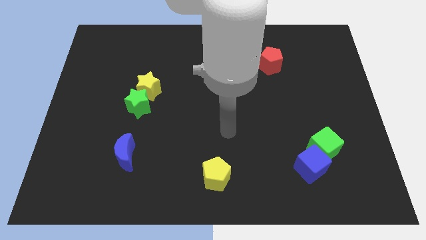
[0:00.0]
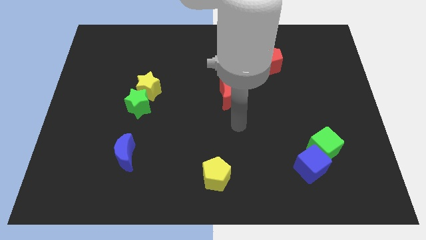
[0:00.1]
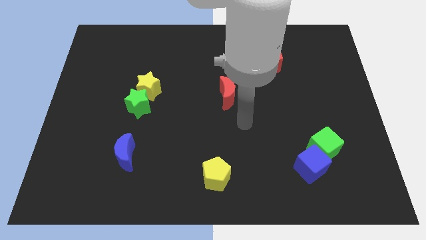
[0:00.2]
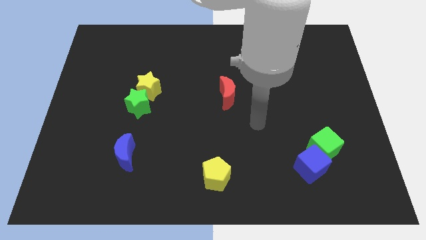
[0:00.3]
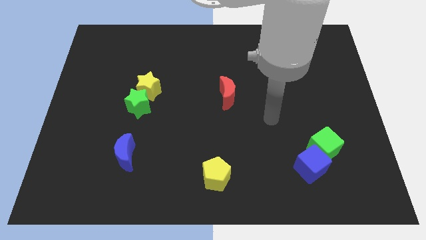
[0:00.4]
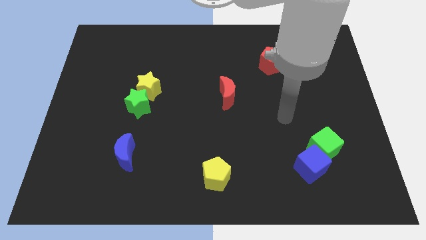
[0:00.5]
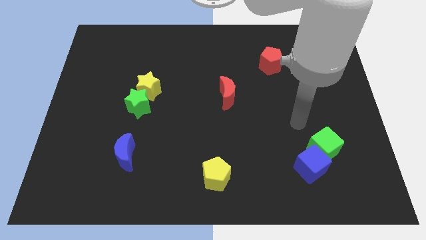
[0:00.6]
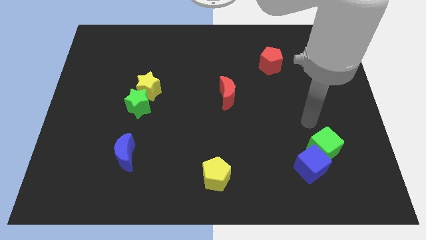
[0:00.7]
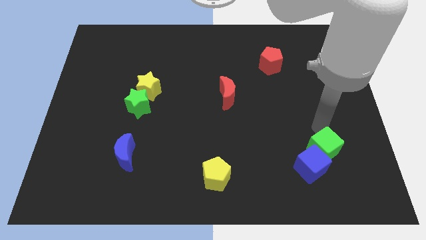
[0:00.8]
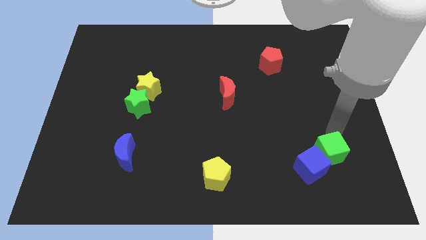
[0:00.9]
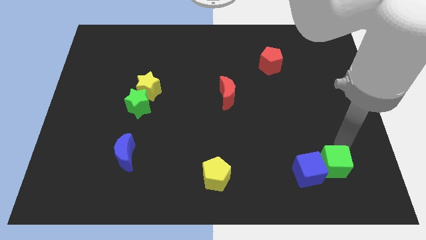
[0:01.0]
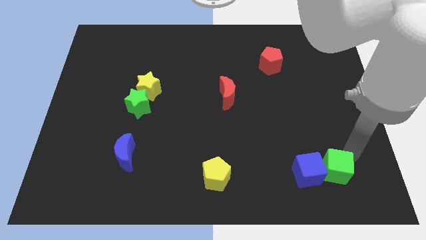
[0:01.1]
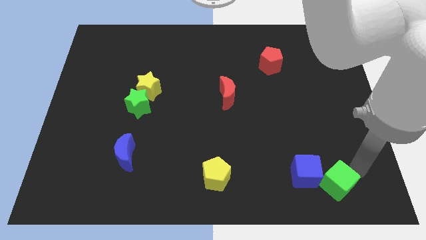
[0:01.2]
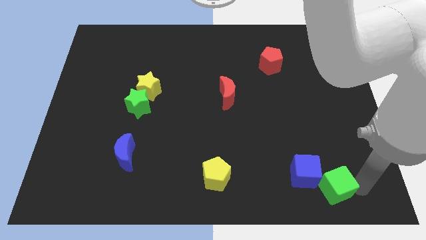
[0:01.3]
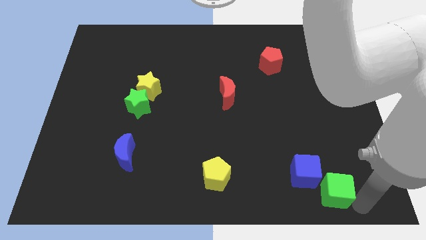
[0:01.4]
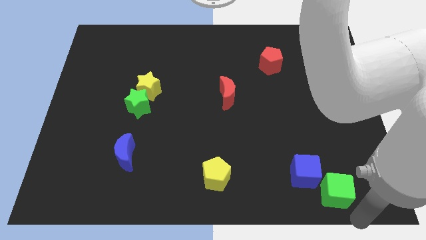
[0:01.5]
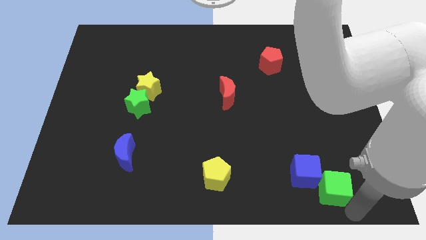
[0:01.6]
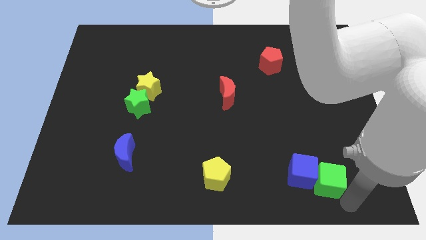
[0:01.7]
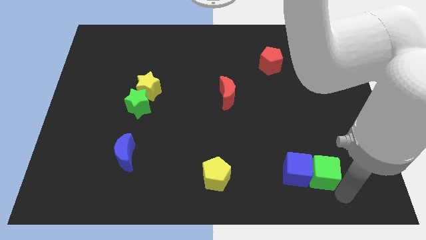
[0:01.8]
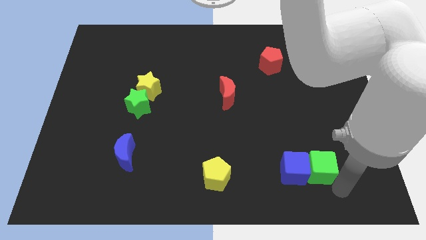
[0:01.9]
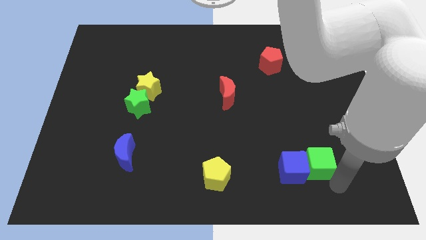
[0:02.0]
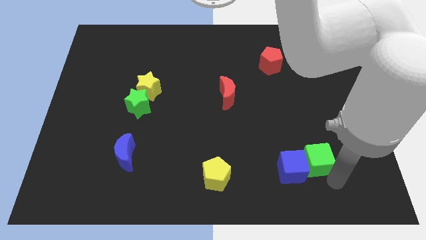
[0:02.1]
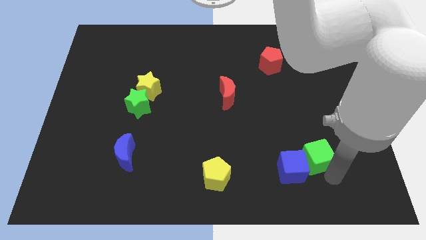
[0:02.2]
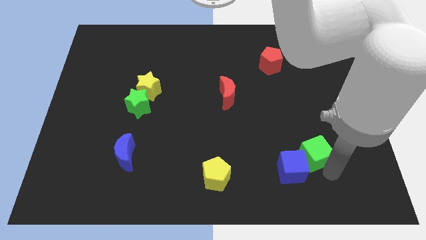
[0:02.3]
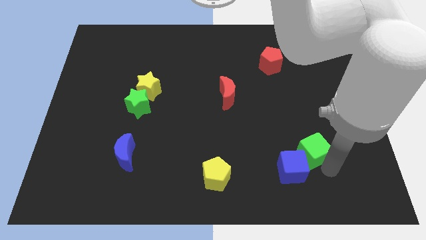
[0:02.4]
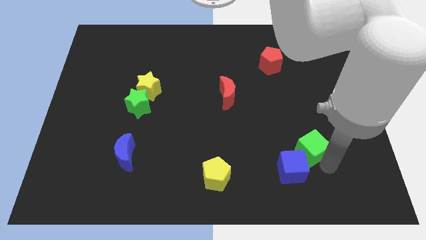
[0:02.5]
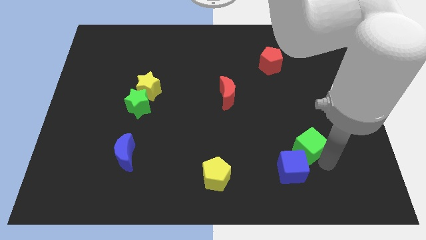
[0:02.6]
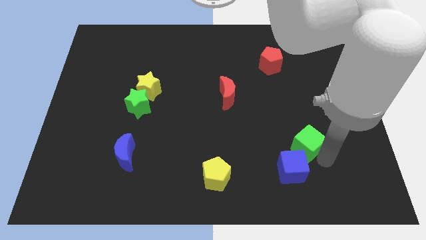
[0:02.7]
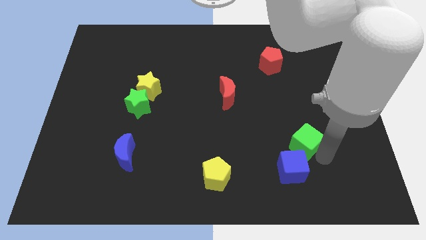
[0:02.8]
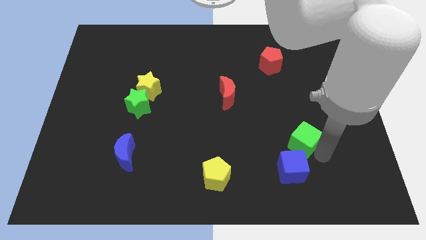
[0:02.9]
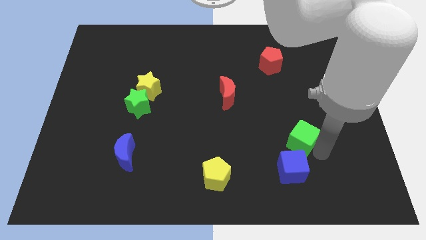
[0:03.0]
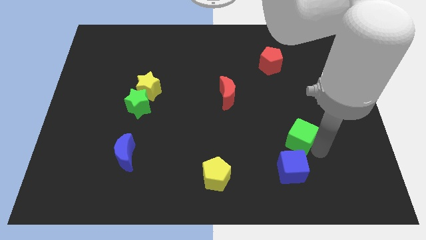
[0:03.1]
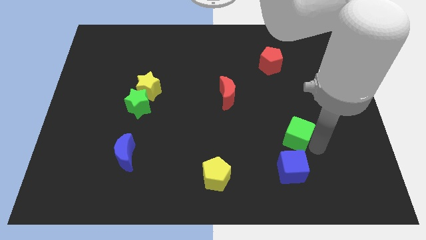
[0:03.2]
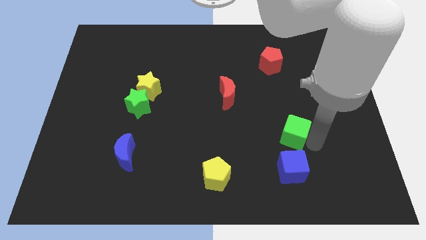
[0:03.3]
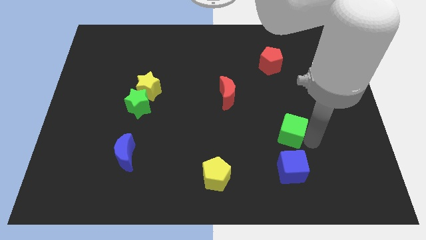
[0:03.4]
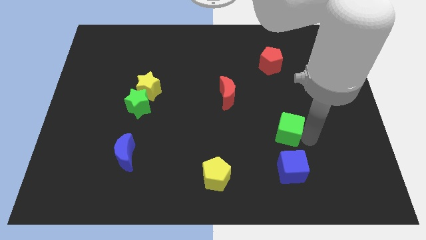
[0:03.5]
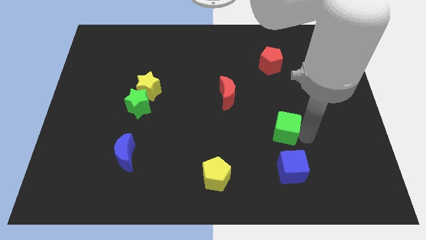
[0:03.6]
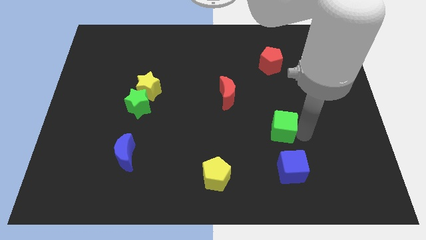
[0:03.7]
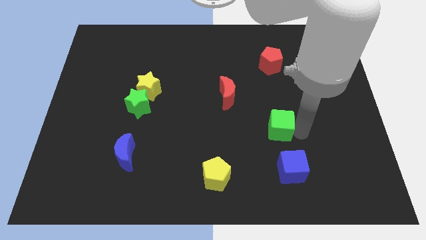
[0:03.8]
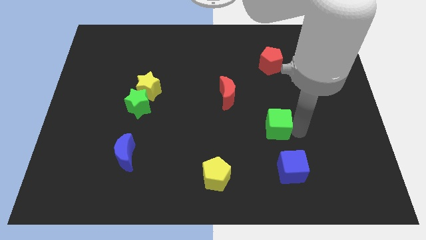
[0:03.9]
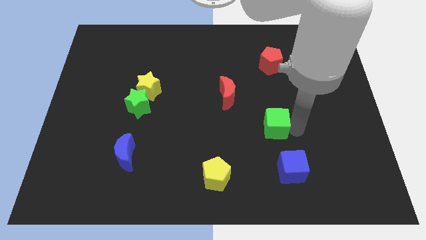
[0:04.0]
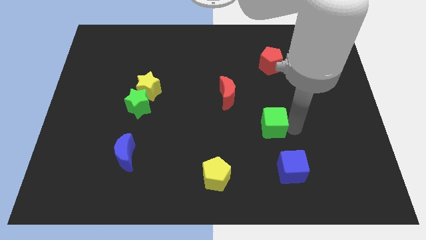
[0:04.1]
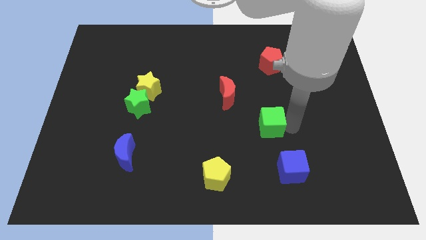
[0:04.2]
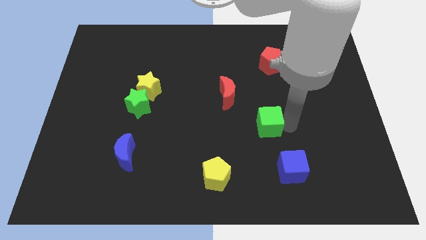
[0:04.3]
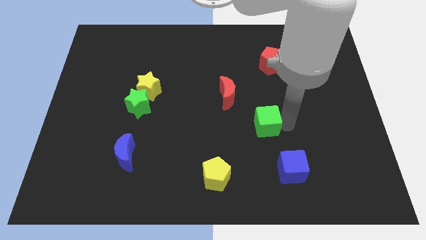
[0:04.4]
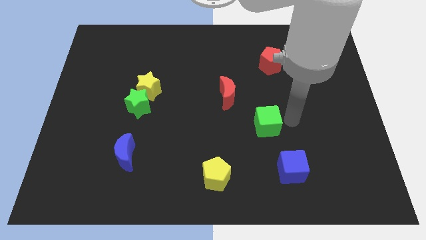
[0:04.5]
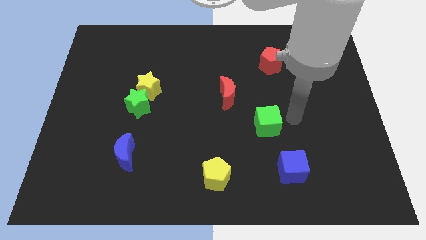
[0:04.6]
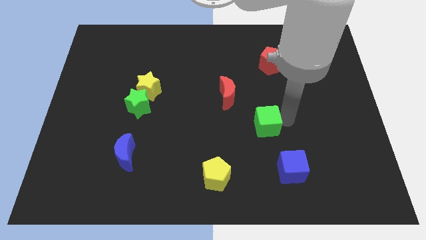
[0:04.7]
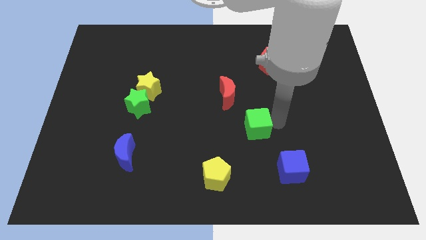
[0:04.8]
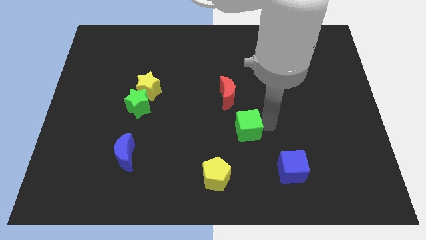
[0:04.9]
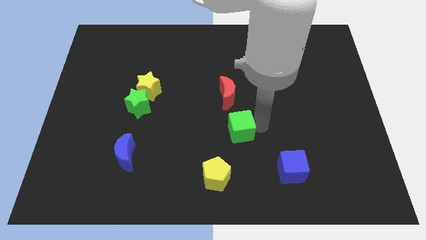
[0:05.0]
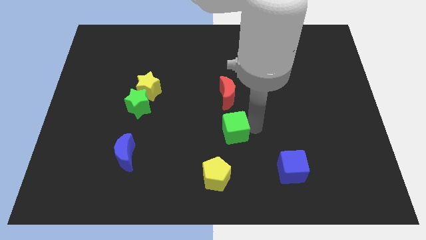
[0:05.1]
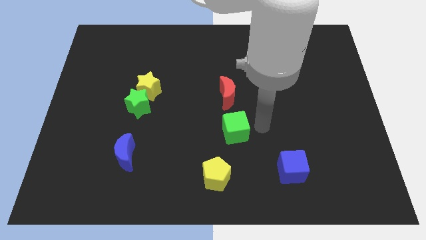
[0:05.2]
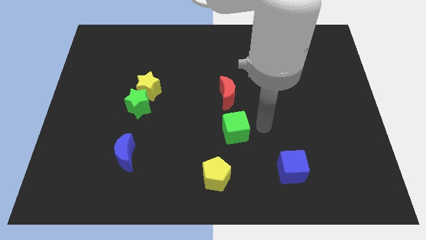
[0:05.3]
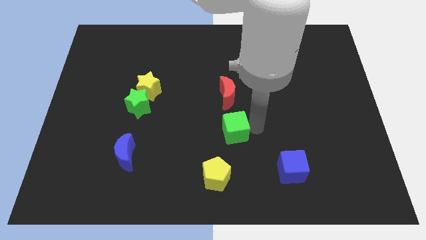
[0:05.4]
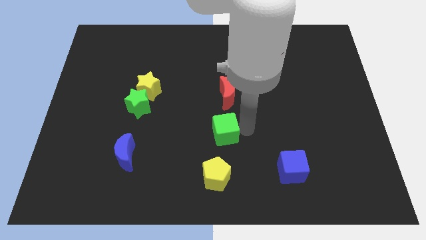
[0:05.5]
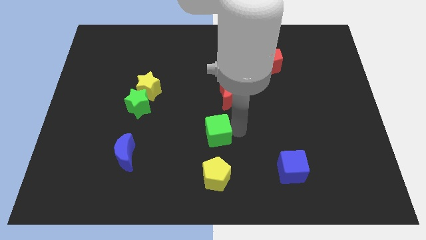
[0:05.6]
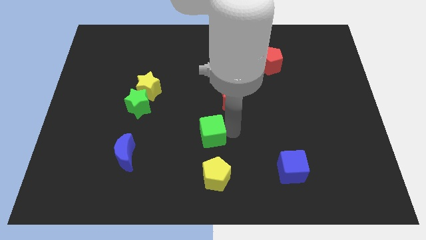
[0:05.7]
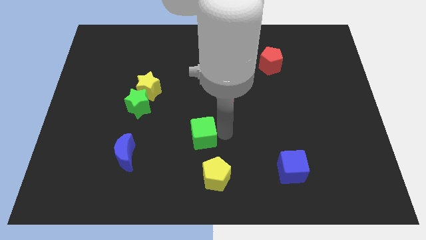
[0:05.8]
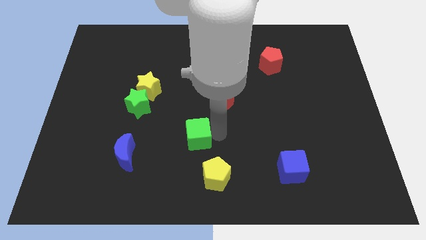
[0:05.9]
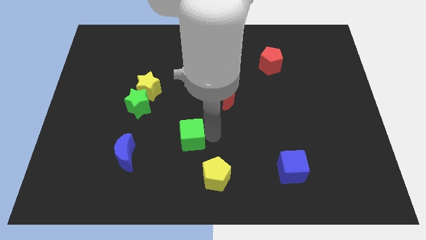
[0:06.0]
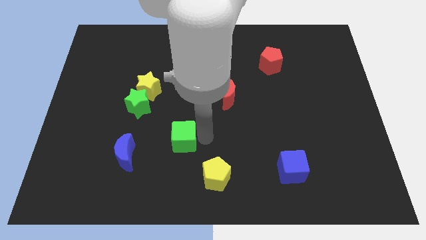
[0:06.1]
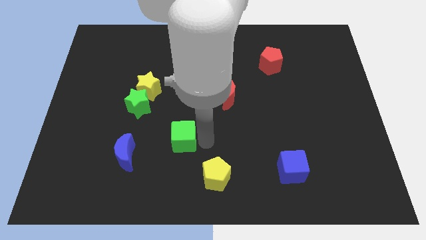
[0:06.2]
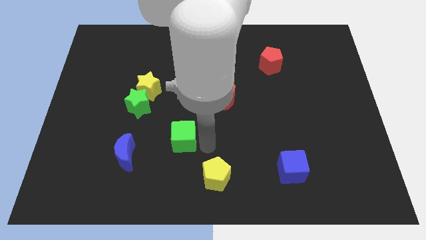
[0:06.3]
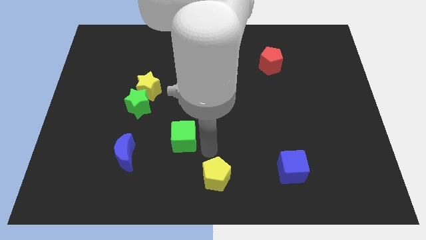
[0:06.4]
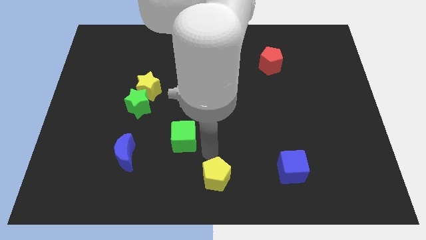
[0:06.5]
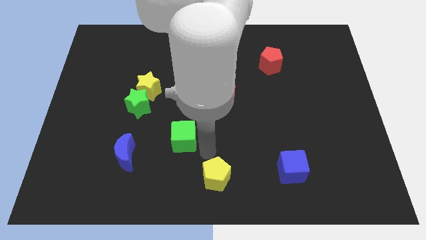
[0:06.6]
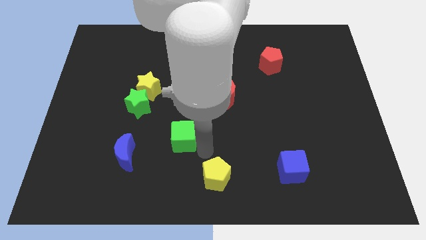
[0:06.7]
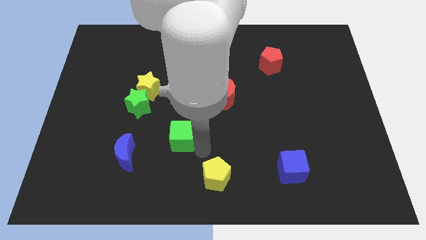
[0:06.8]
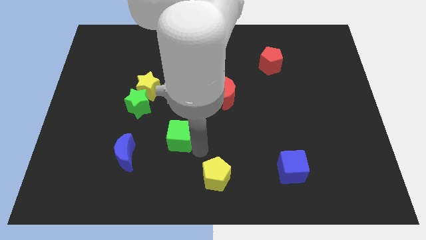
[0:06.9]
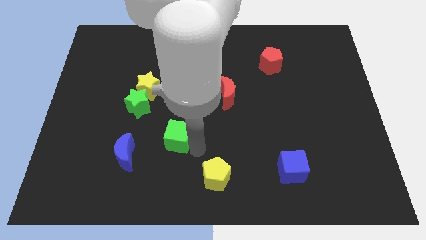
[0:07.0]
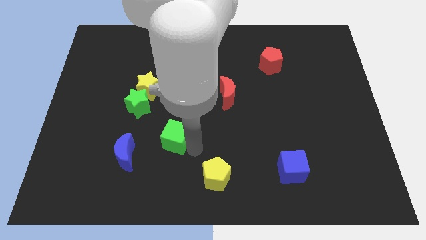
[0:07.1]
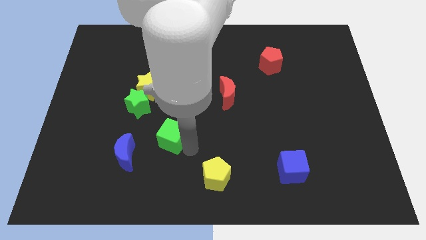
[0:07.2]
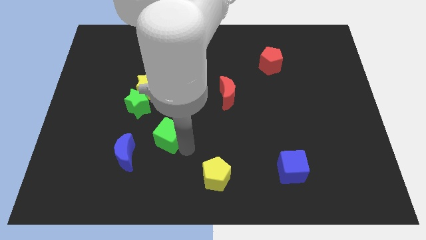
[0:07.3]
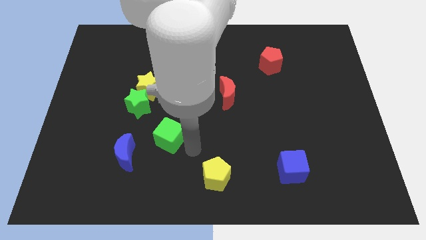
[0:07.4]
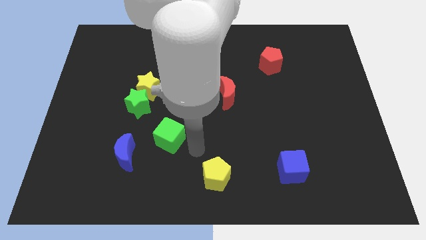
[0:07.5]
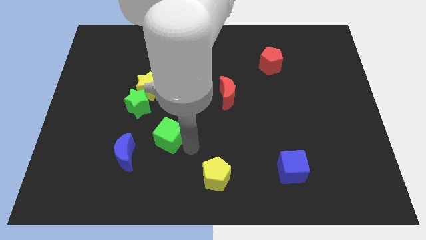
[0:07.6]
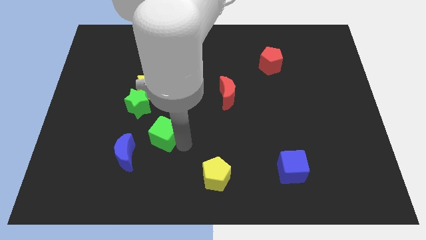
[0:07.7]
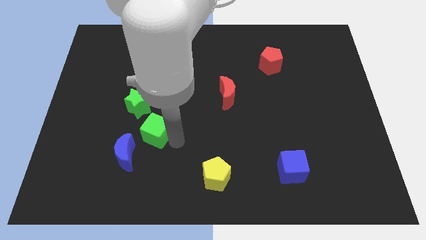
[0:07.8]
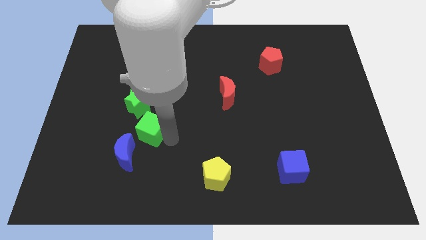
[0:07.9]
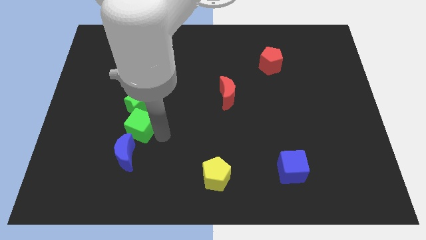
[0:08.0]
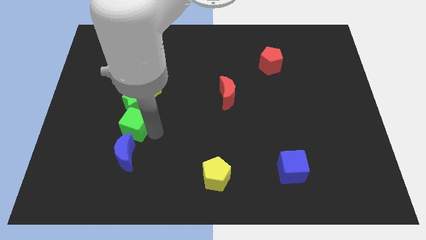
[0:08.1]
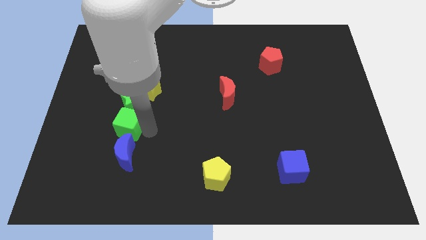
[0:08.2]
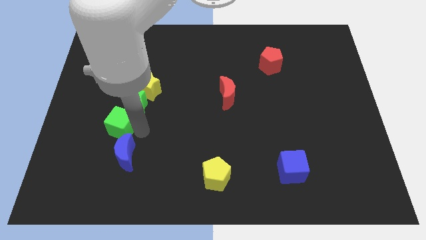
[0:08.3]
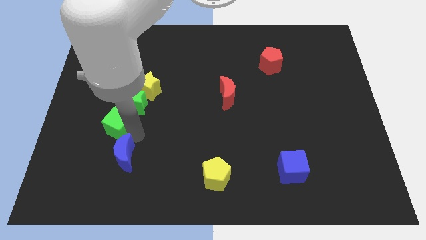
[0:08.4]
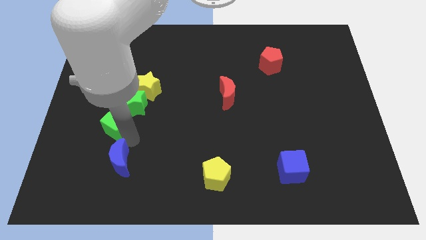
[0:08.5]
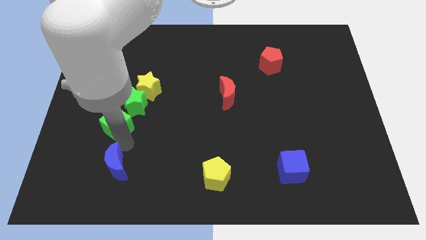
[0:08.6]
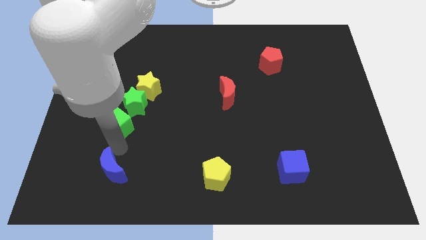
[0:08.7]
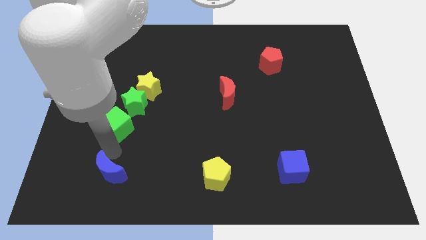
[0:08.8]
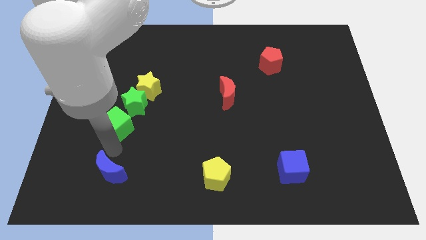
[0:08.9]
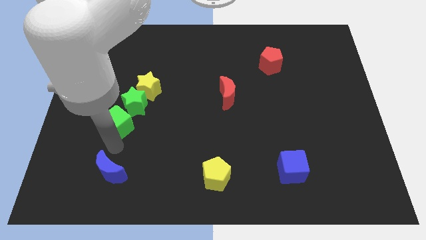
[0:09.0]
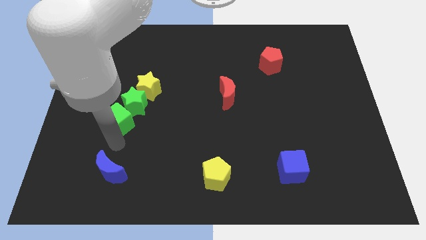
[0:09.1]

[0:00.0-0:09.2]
slide the green cube diagonally down and to the left of the yellow star
